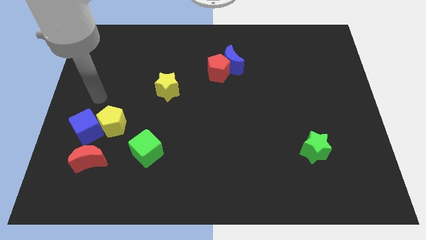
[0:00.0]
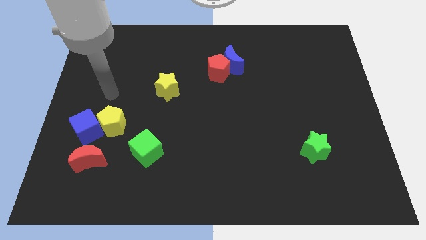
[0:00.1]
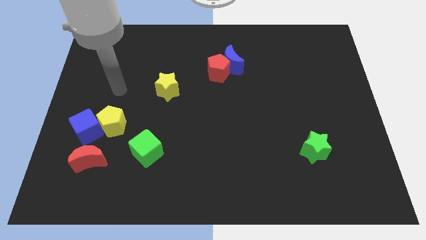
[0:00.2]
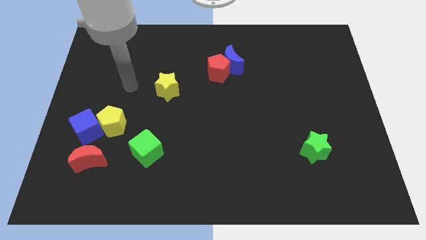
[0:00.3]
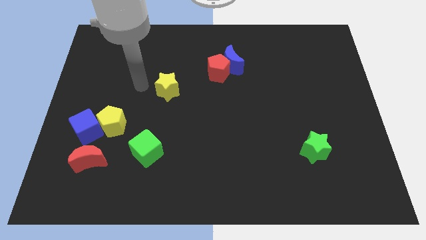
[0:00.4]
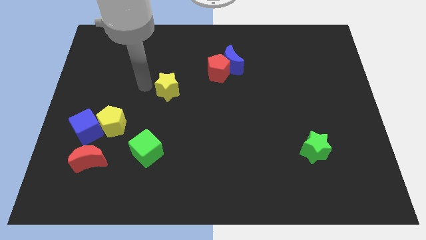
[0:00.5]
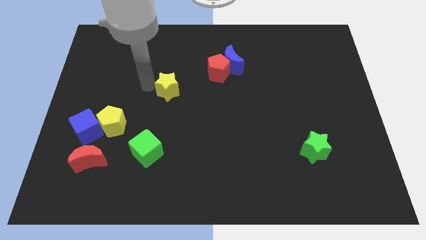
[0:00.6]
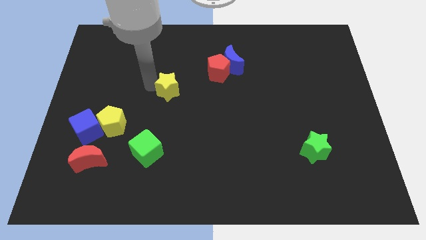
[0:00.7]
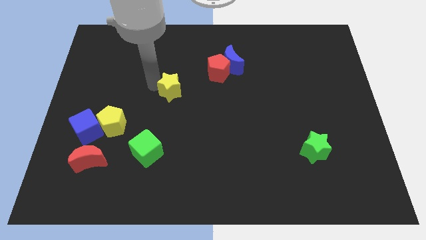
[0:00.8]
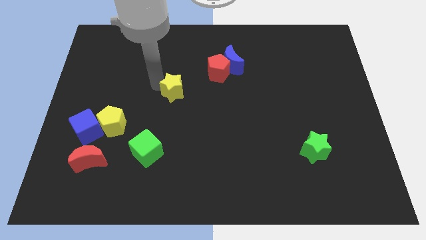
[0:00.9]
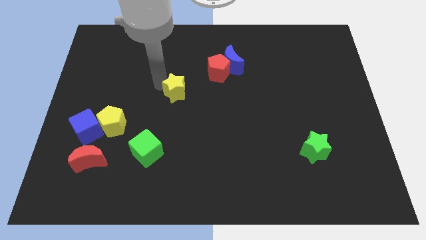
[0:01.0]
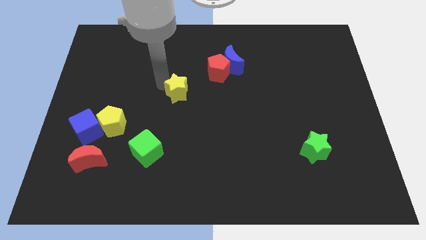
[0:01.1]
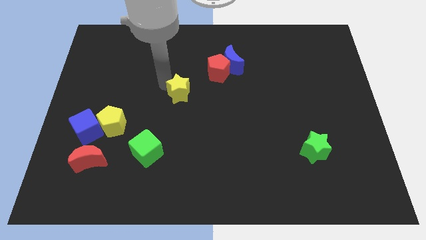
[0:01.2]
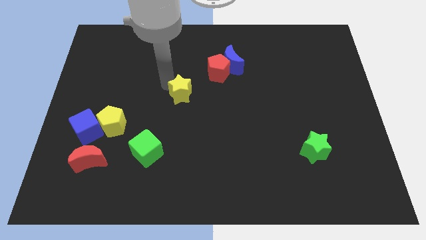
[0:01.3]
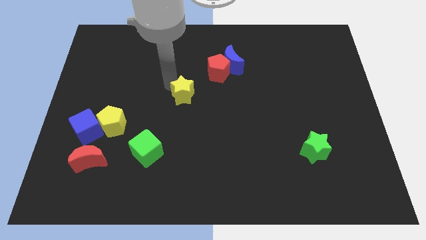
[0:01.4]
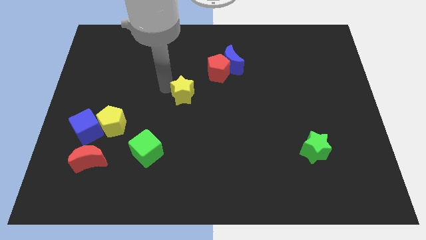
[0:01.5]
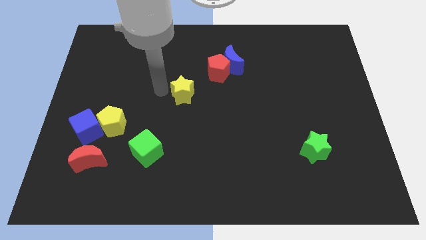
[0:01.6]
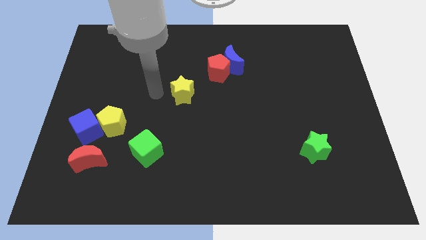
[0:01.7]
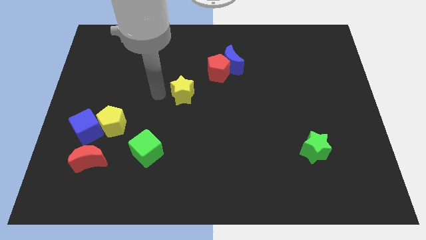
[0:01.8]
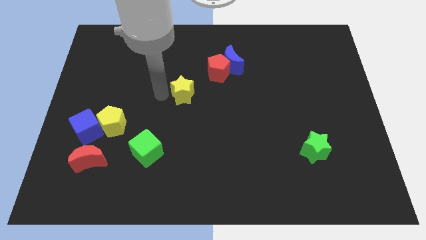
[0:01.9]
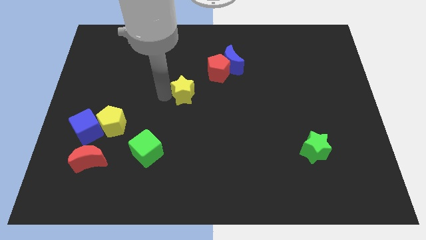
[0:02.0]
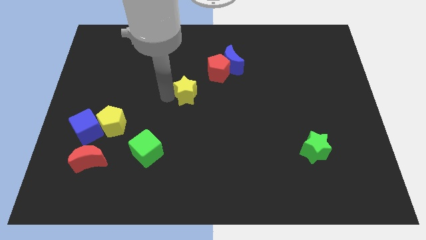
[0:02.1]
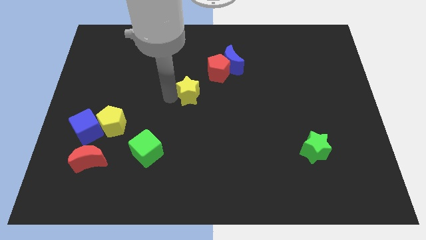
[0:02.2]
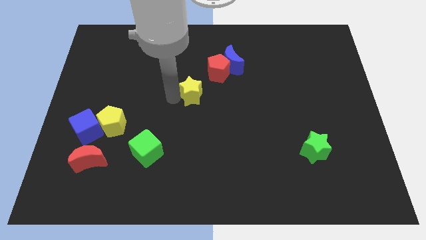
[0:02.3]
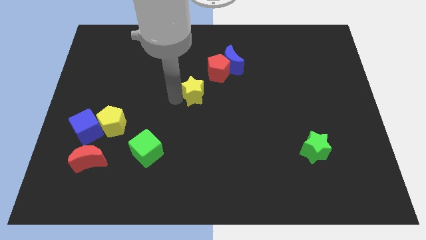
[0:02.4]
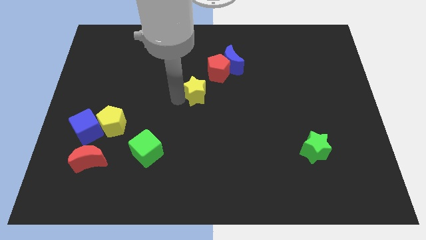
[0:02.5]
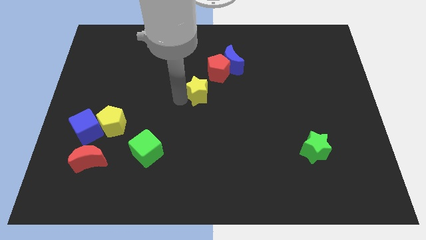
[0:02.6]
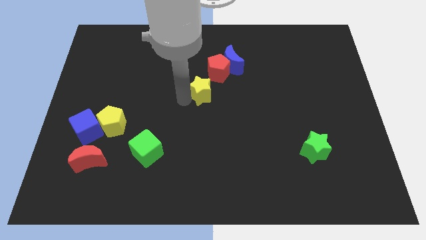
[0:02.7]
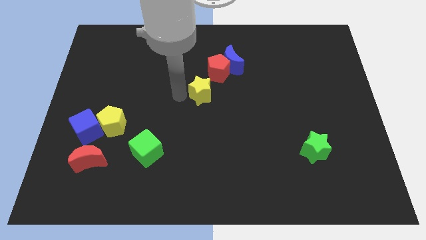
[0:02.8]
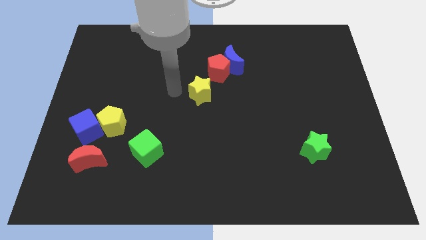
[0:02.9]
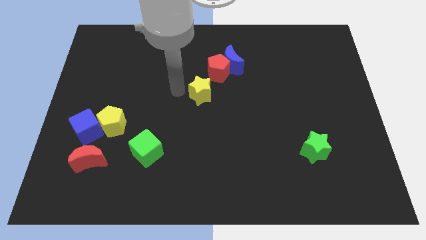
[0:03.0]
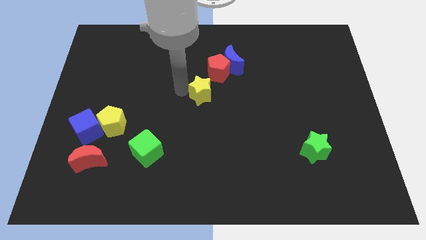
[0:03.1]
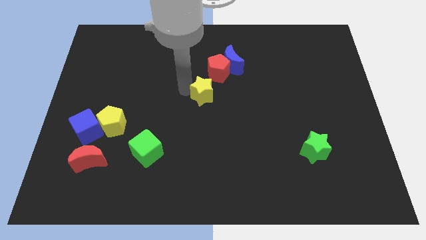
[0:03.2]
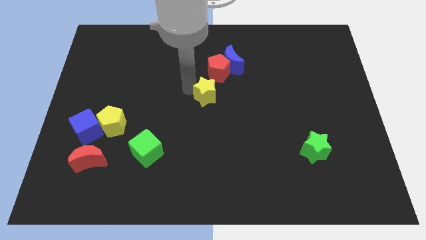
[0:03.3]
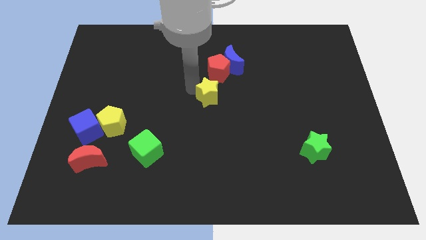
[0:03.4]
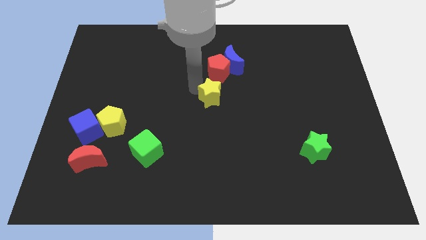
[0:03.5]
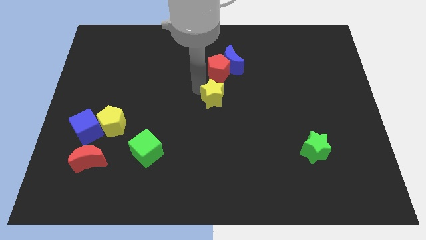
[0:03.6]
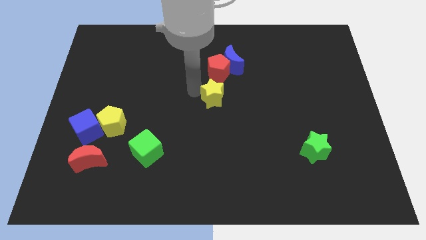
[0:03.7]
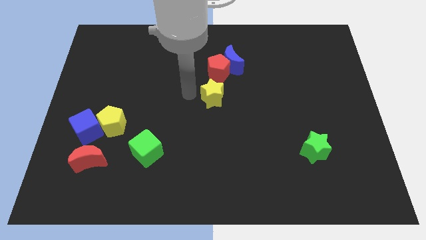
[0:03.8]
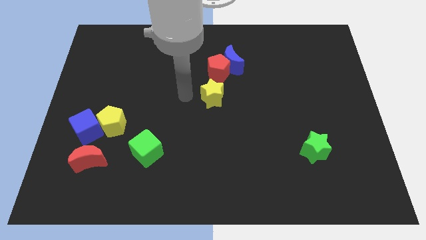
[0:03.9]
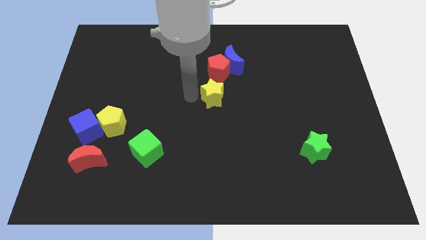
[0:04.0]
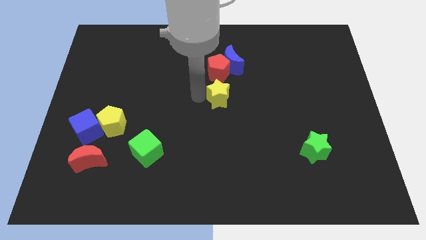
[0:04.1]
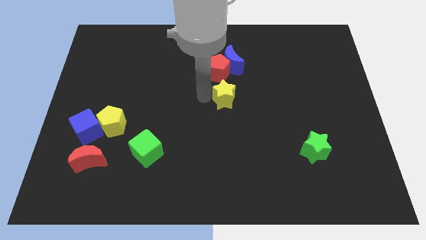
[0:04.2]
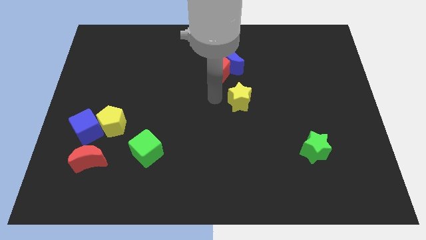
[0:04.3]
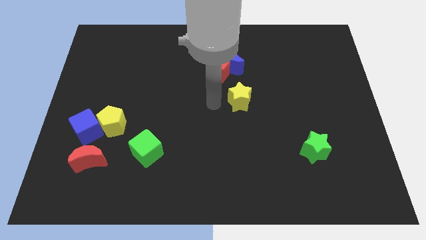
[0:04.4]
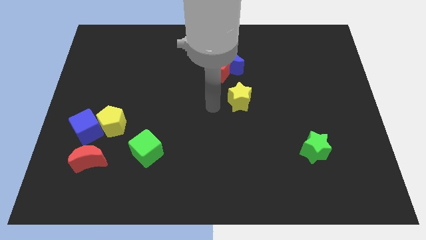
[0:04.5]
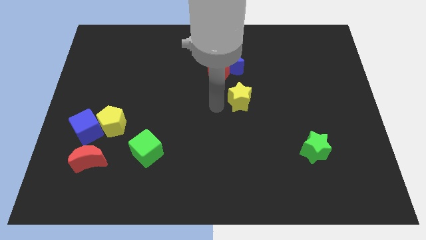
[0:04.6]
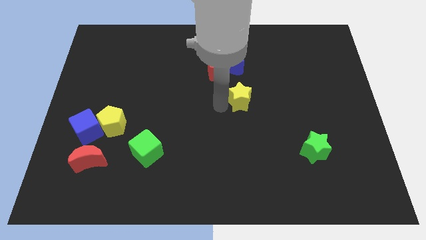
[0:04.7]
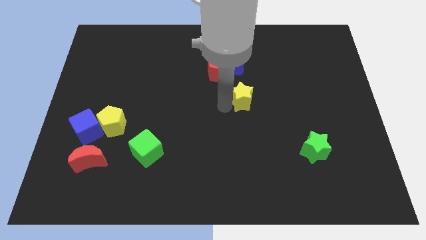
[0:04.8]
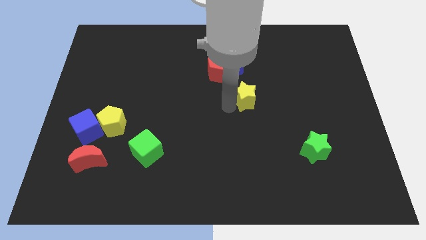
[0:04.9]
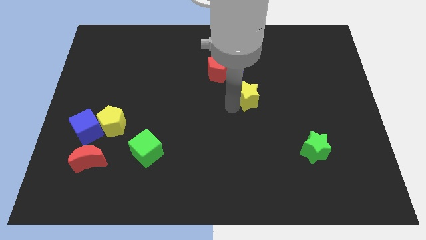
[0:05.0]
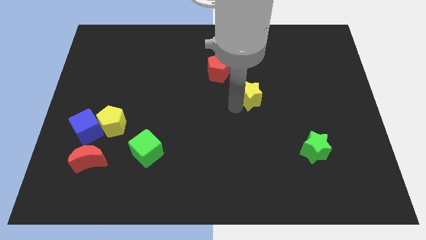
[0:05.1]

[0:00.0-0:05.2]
slide the yellow star right

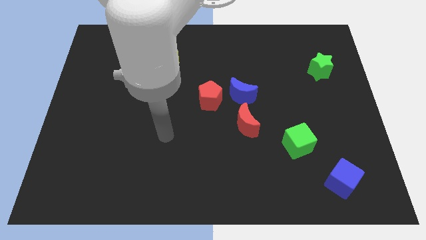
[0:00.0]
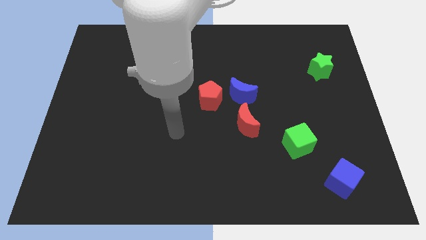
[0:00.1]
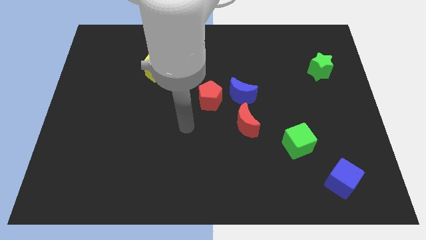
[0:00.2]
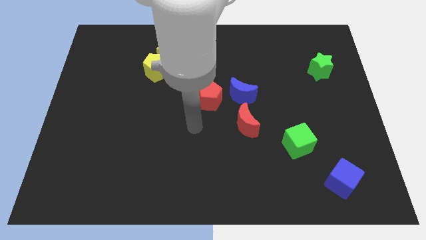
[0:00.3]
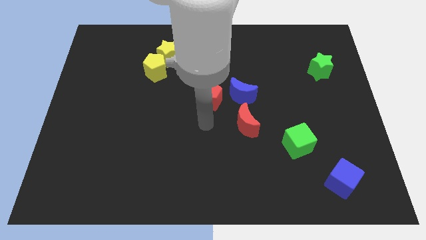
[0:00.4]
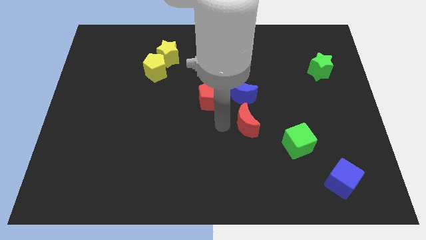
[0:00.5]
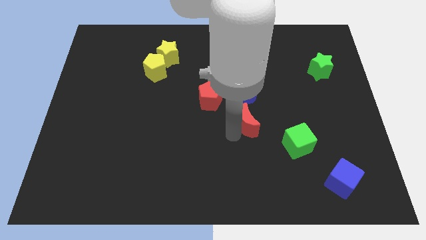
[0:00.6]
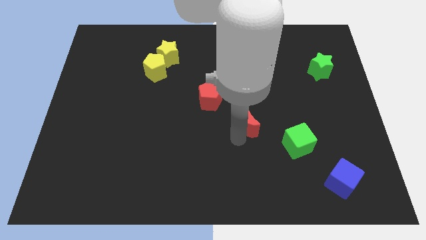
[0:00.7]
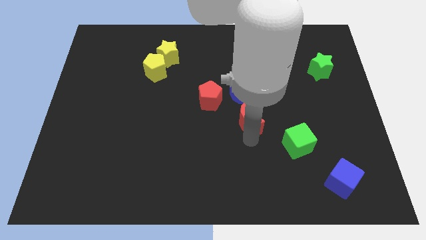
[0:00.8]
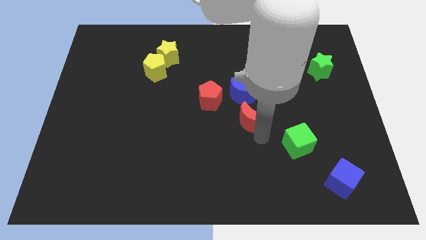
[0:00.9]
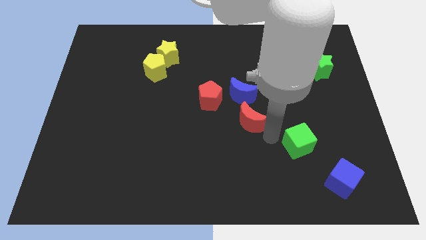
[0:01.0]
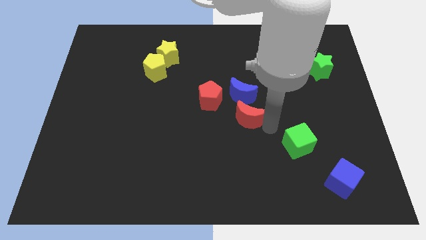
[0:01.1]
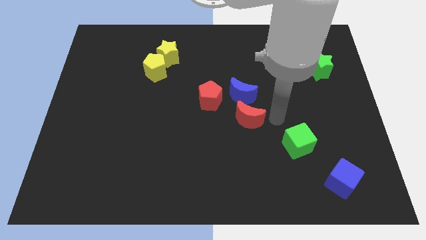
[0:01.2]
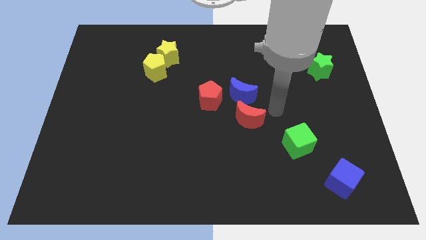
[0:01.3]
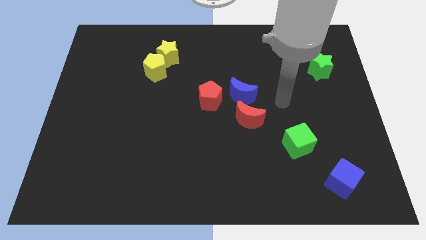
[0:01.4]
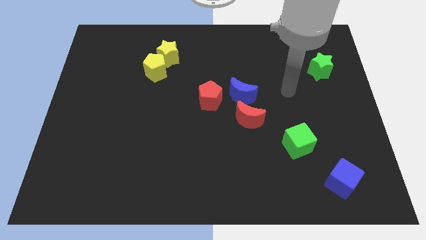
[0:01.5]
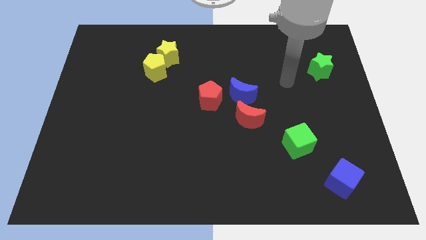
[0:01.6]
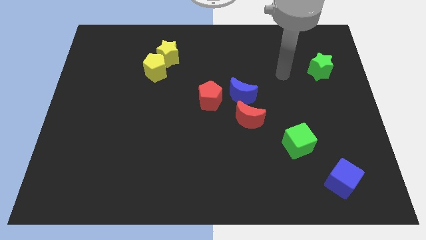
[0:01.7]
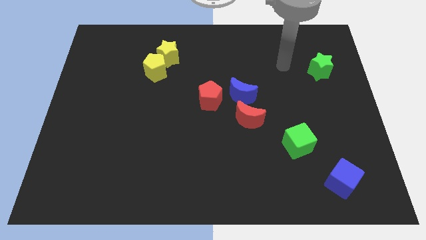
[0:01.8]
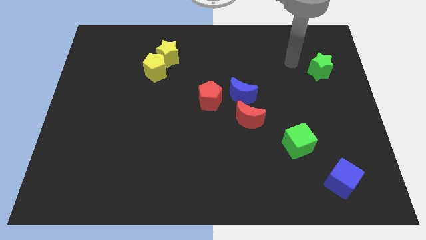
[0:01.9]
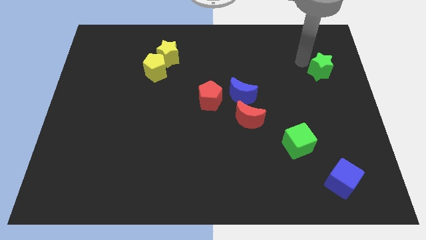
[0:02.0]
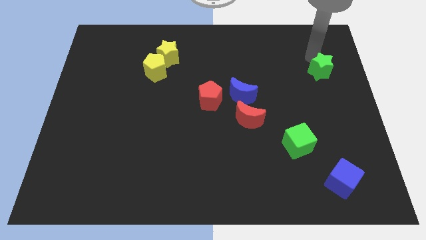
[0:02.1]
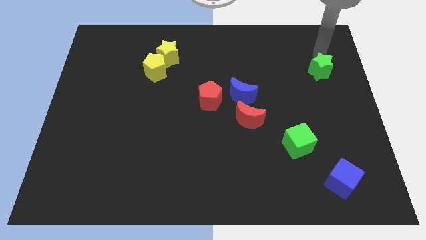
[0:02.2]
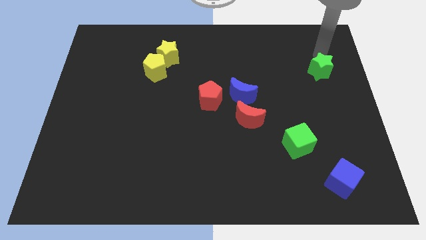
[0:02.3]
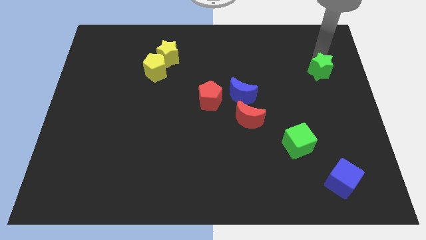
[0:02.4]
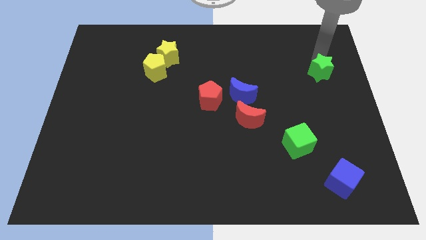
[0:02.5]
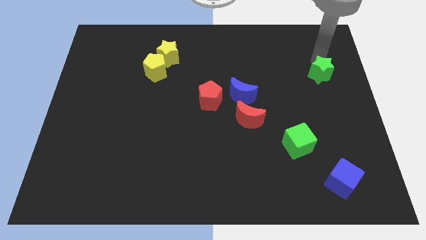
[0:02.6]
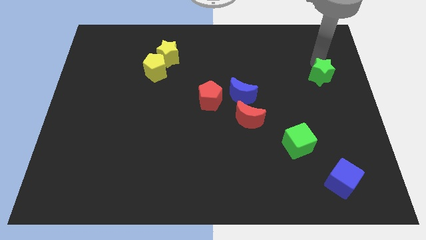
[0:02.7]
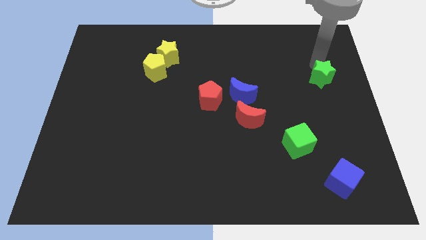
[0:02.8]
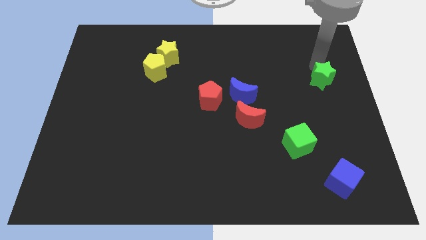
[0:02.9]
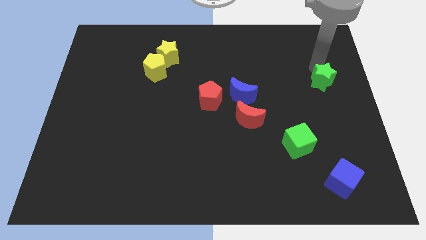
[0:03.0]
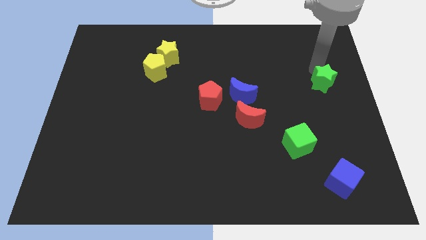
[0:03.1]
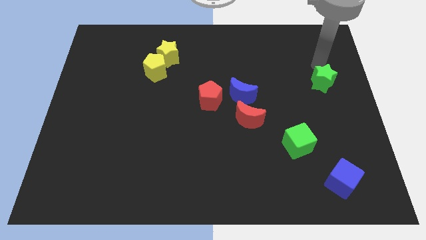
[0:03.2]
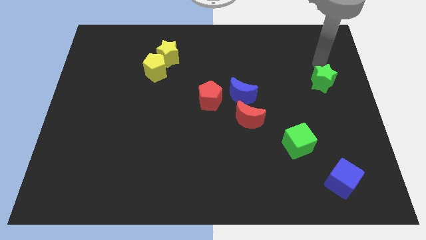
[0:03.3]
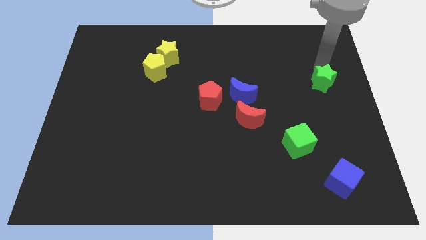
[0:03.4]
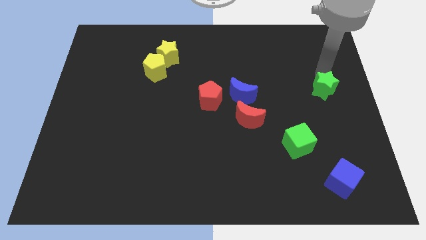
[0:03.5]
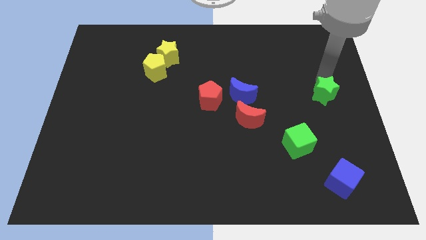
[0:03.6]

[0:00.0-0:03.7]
slide the green star a little bit down
